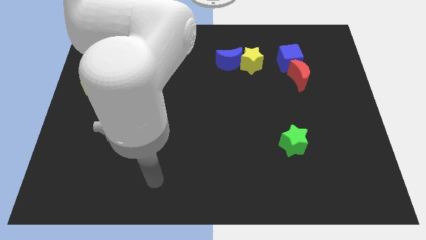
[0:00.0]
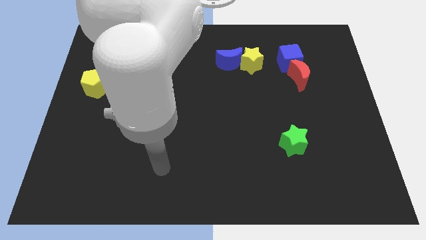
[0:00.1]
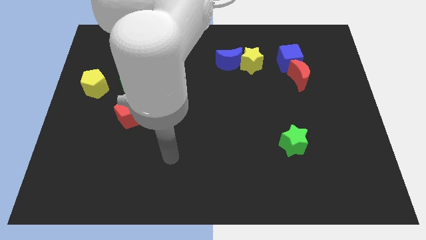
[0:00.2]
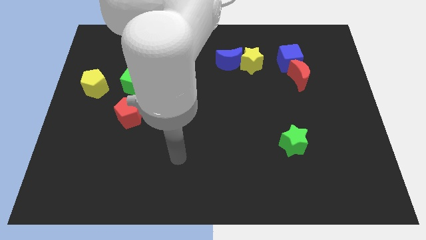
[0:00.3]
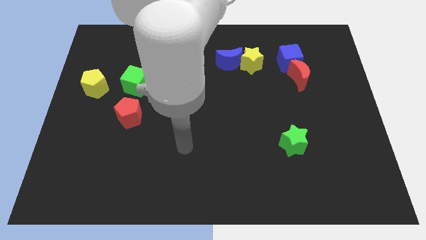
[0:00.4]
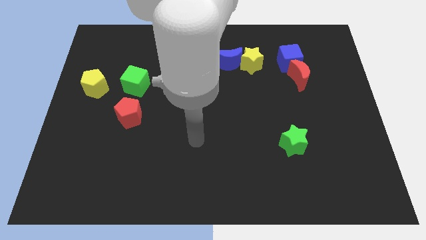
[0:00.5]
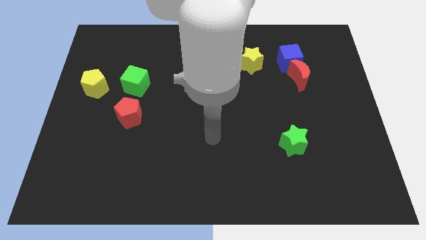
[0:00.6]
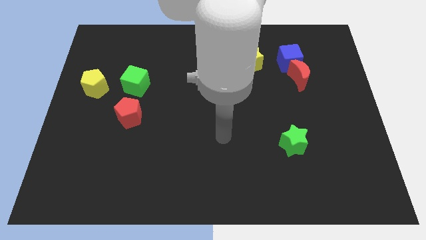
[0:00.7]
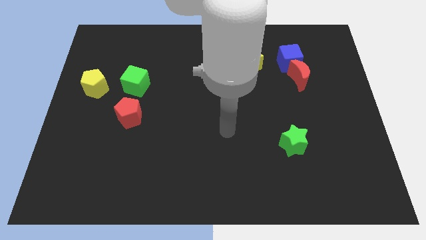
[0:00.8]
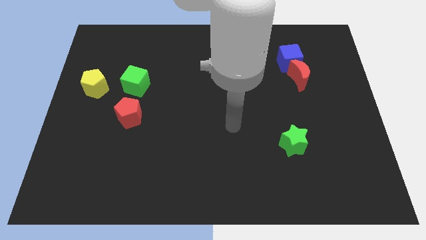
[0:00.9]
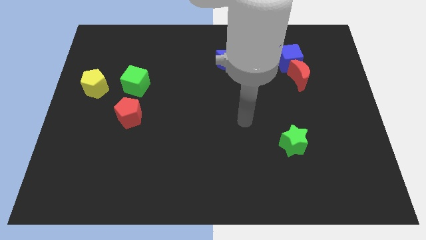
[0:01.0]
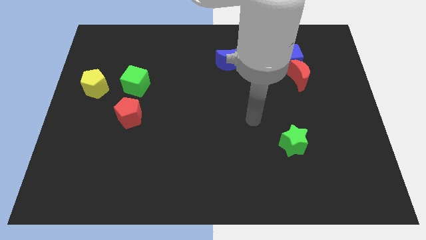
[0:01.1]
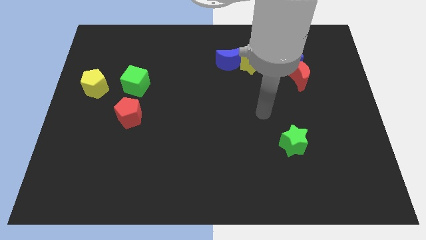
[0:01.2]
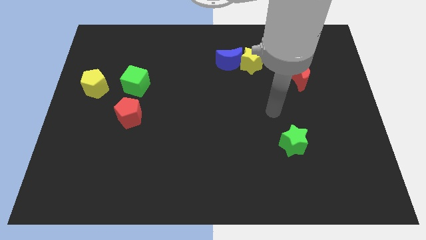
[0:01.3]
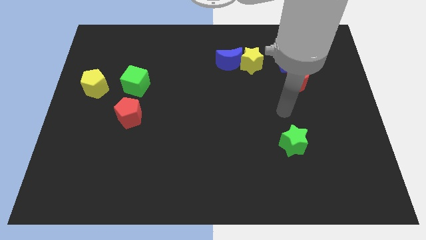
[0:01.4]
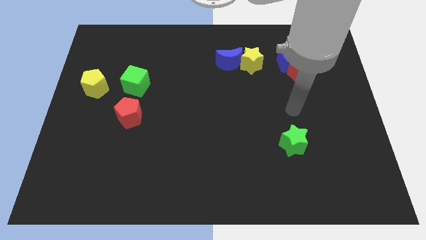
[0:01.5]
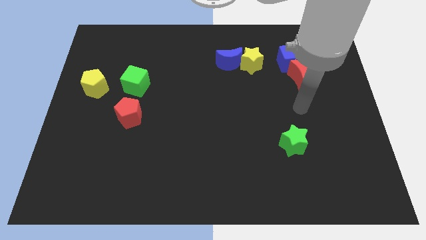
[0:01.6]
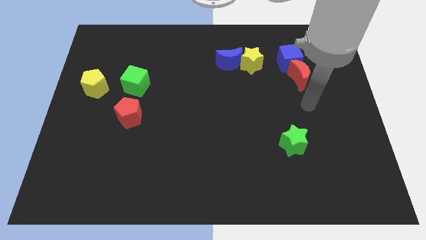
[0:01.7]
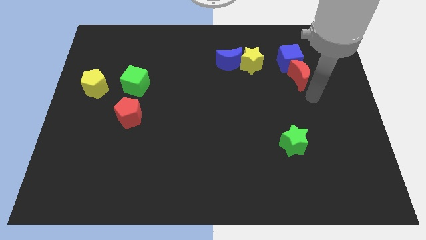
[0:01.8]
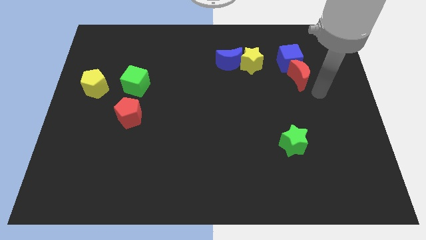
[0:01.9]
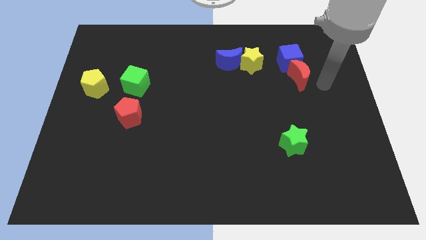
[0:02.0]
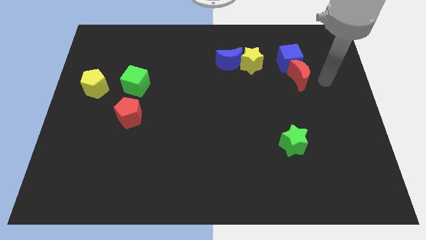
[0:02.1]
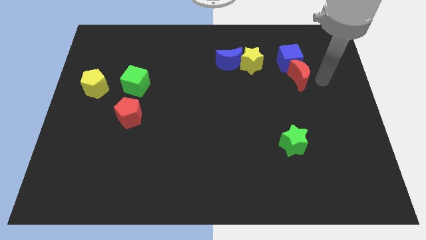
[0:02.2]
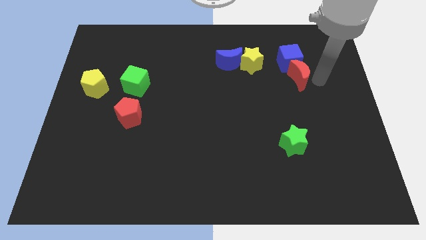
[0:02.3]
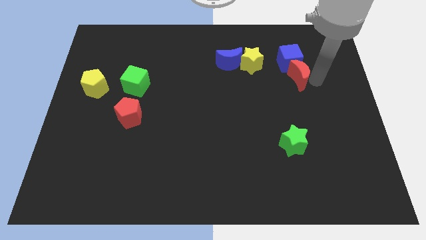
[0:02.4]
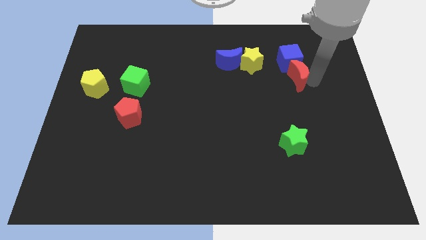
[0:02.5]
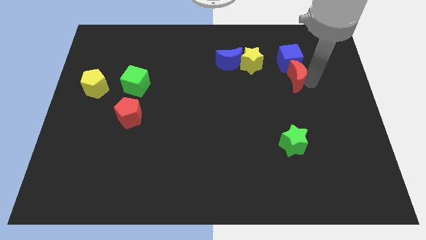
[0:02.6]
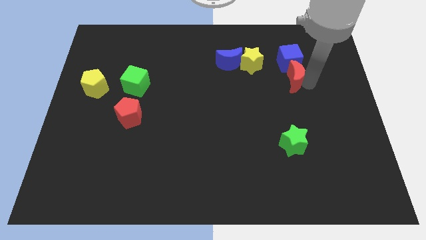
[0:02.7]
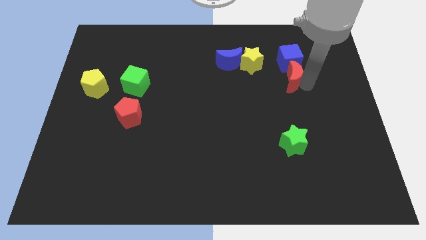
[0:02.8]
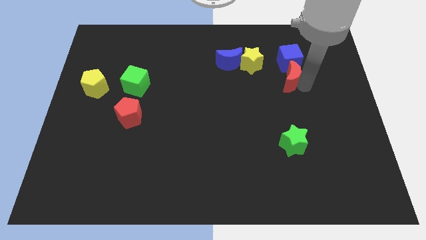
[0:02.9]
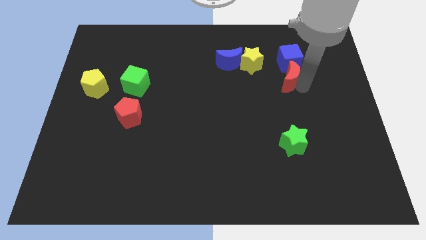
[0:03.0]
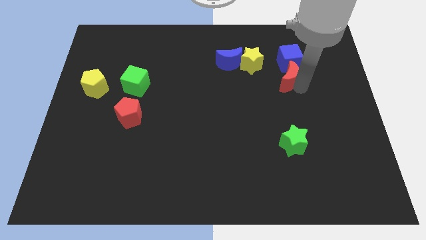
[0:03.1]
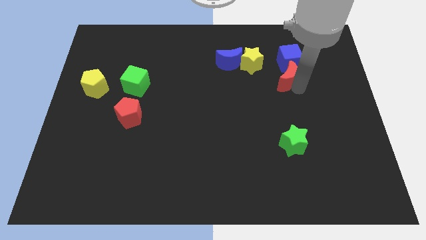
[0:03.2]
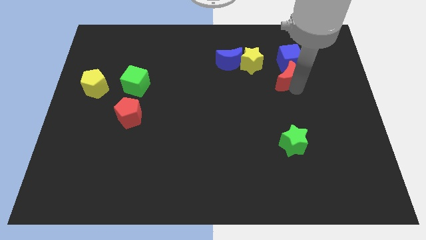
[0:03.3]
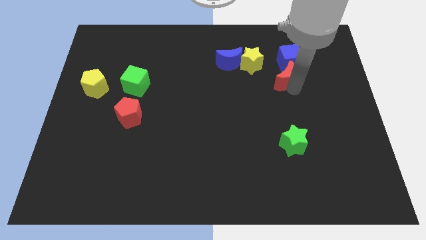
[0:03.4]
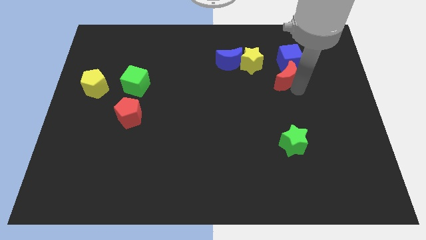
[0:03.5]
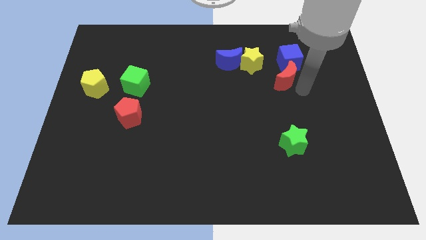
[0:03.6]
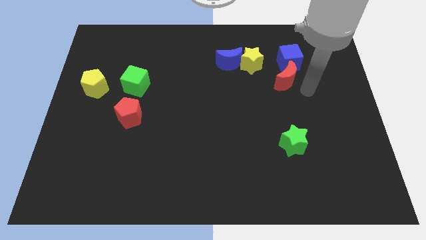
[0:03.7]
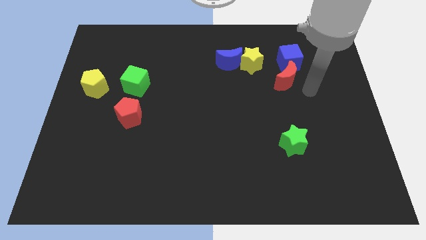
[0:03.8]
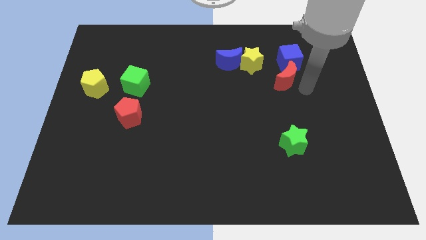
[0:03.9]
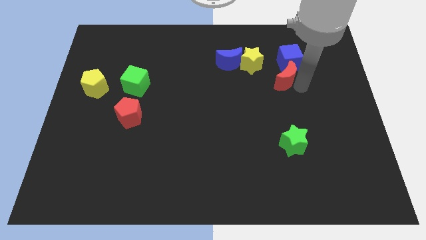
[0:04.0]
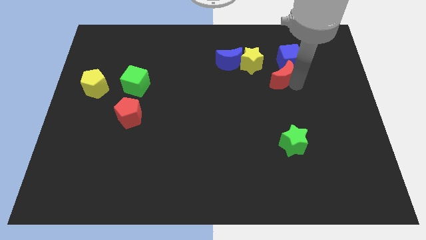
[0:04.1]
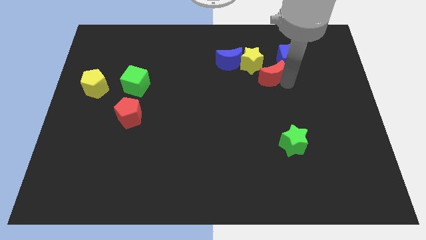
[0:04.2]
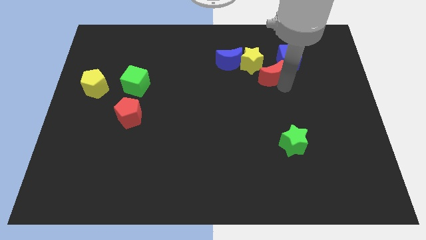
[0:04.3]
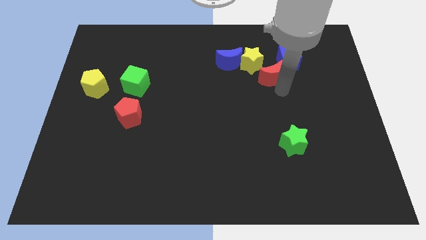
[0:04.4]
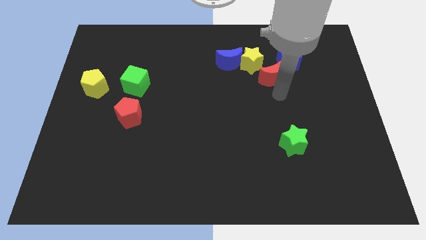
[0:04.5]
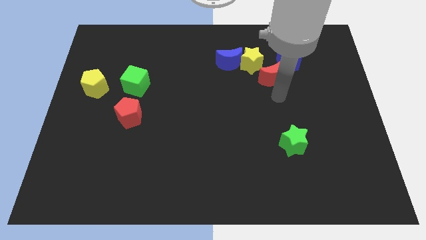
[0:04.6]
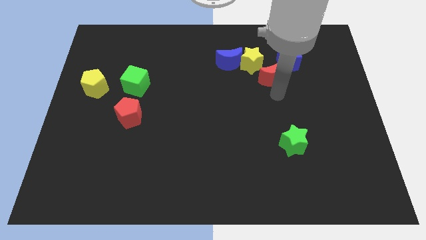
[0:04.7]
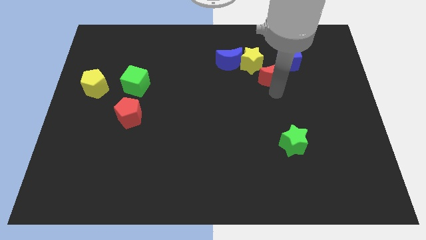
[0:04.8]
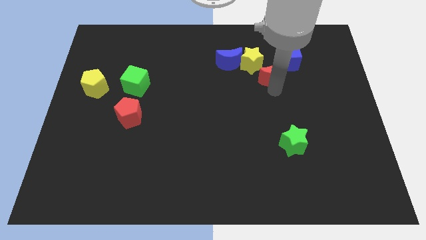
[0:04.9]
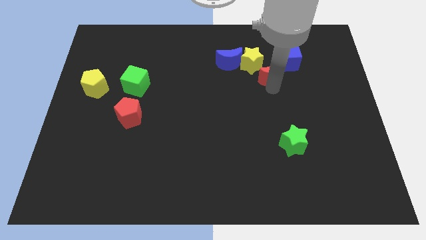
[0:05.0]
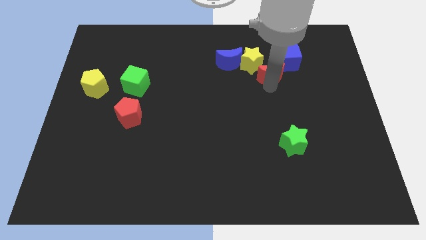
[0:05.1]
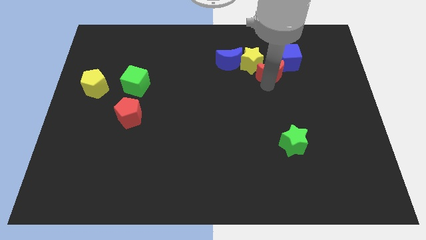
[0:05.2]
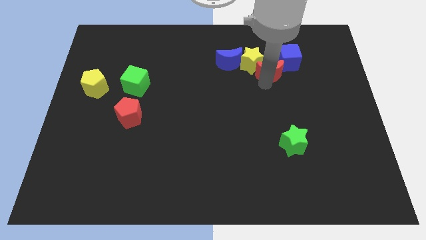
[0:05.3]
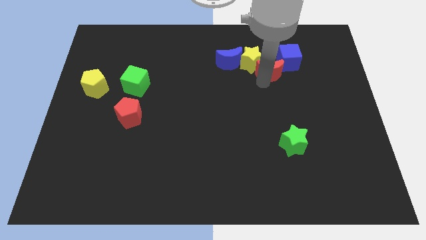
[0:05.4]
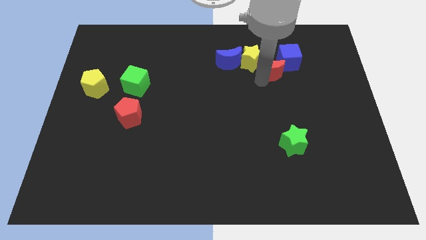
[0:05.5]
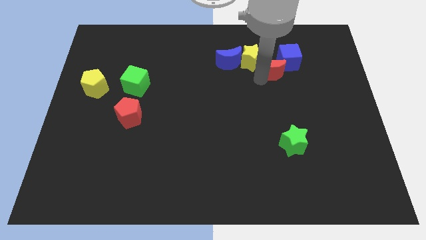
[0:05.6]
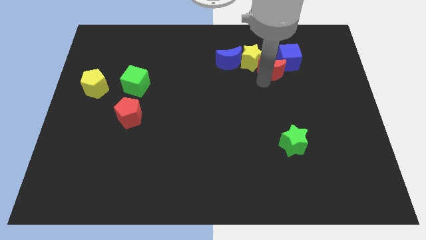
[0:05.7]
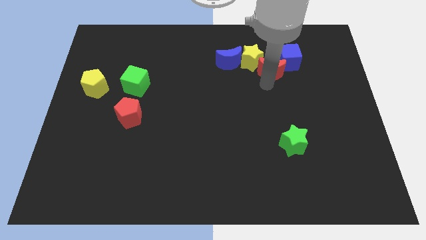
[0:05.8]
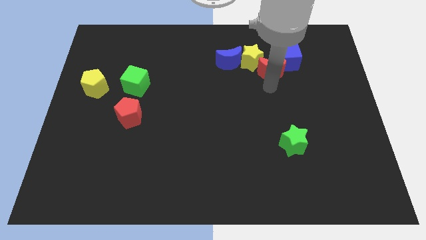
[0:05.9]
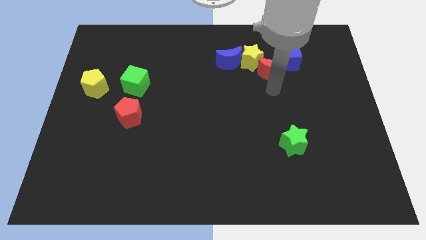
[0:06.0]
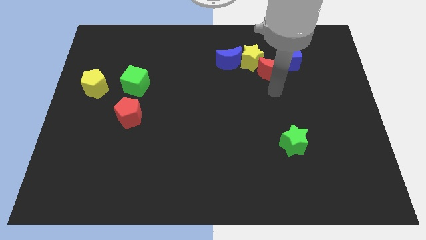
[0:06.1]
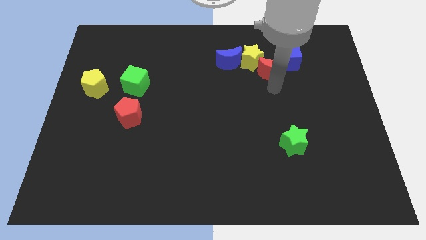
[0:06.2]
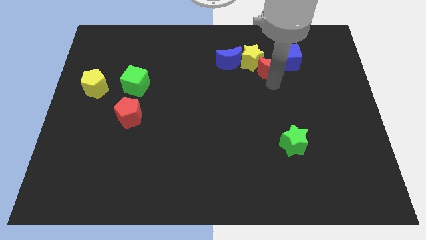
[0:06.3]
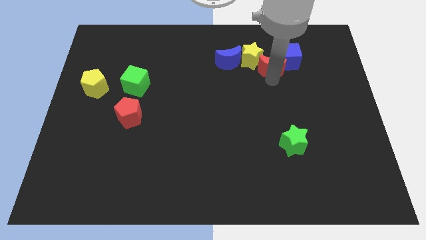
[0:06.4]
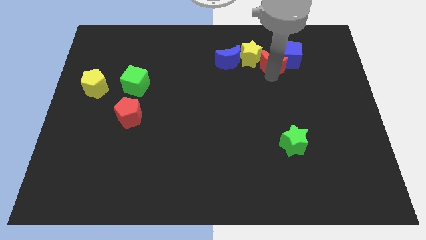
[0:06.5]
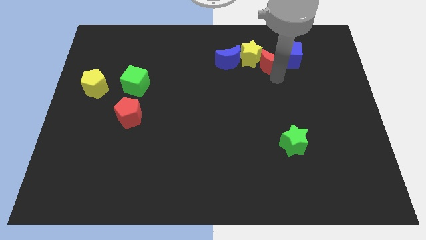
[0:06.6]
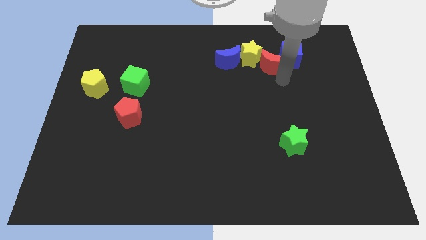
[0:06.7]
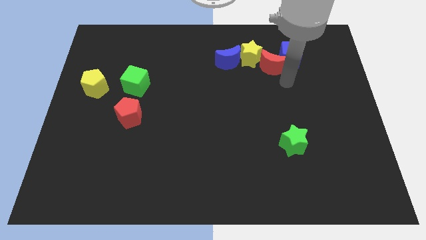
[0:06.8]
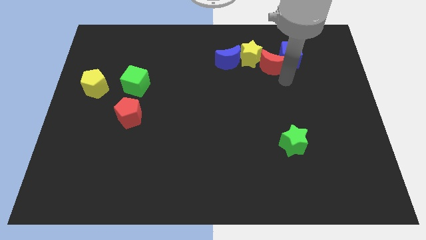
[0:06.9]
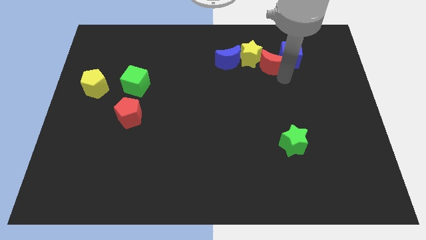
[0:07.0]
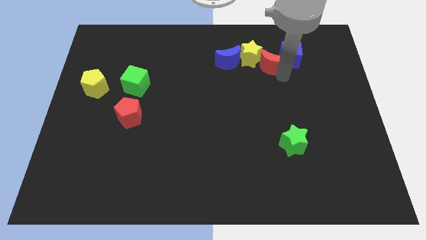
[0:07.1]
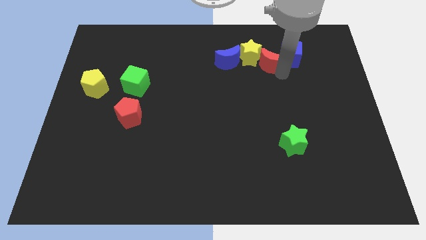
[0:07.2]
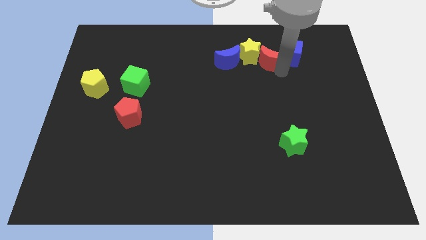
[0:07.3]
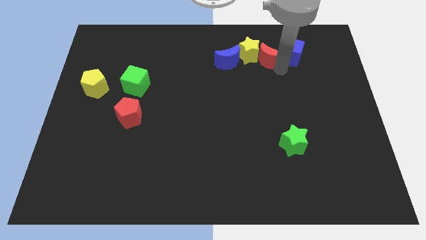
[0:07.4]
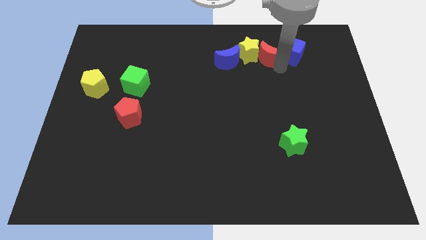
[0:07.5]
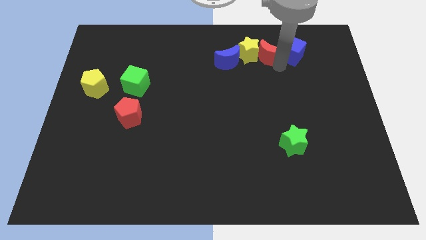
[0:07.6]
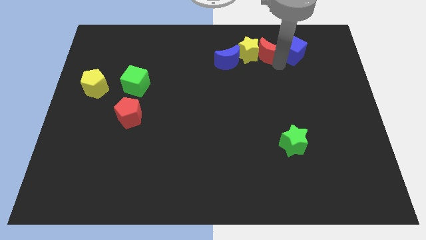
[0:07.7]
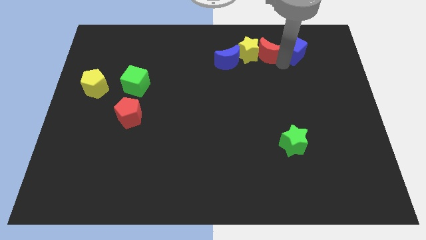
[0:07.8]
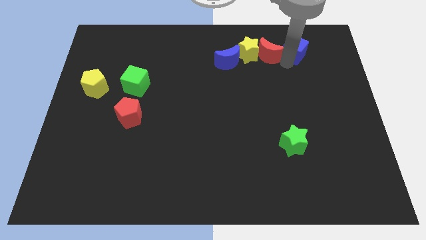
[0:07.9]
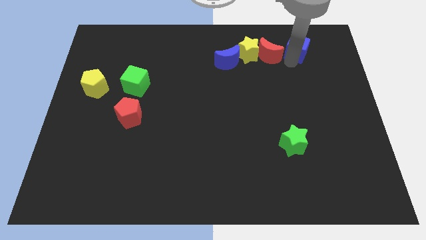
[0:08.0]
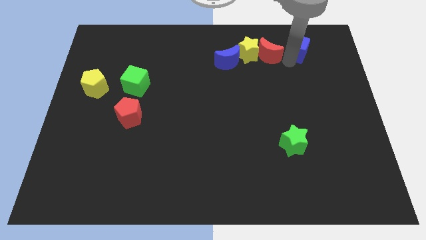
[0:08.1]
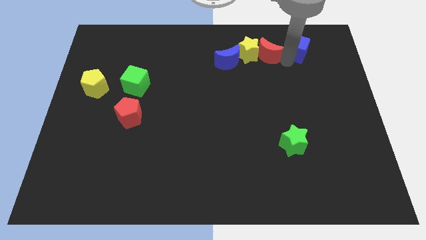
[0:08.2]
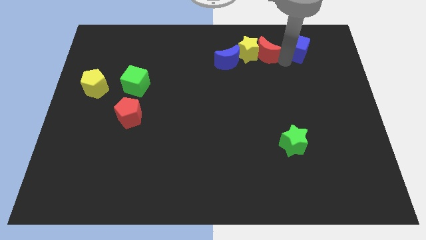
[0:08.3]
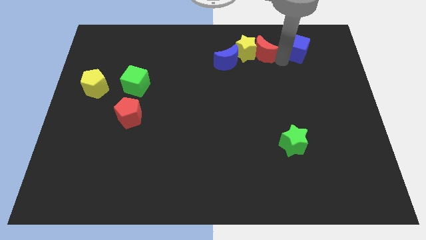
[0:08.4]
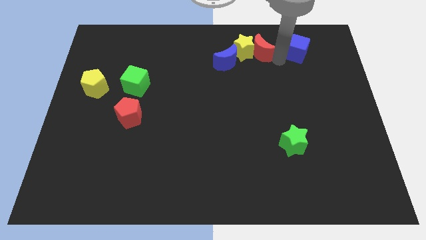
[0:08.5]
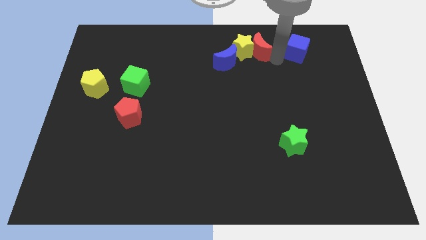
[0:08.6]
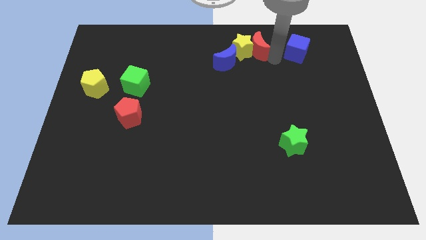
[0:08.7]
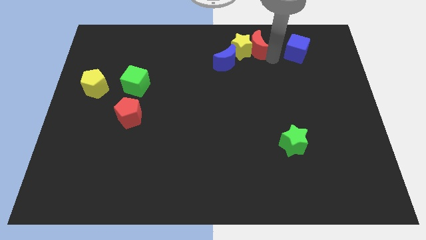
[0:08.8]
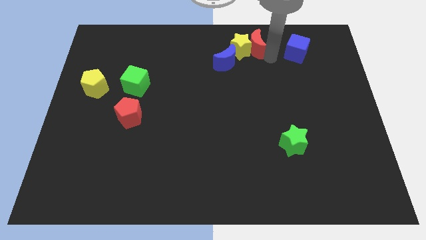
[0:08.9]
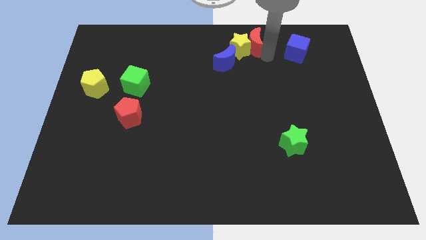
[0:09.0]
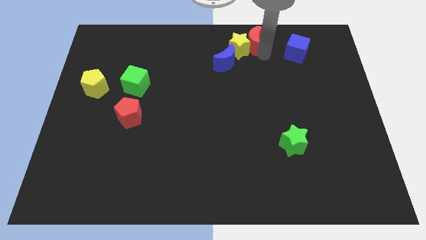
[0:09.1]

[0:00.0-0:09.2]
move the red moon to the top side
